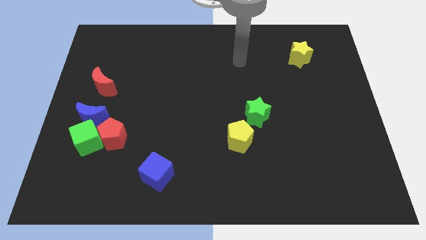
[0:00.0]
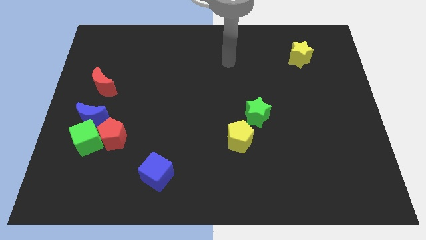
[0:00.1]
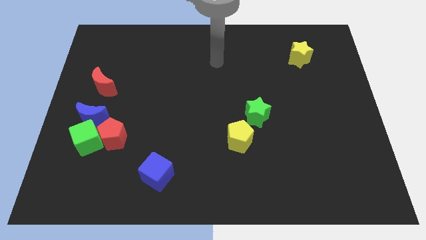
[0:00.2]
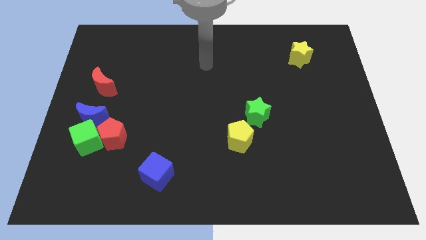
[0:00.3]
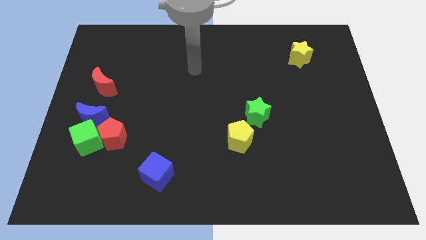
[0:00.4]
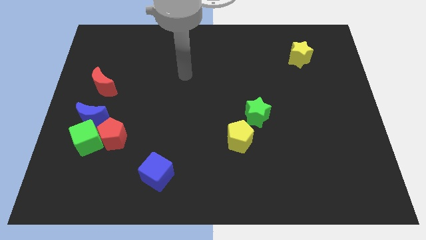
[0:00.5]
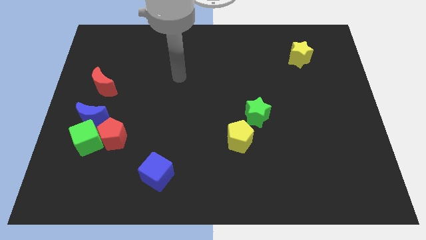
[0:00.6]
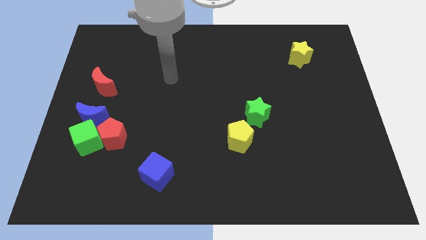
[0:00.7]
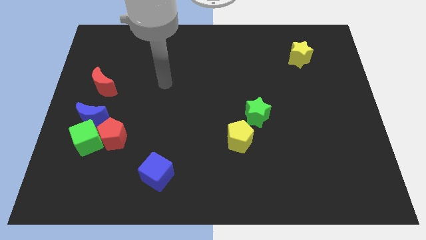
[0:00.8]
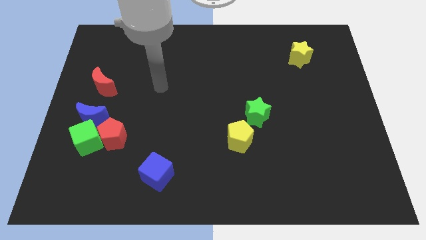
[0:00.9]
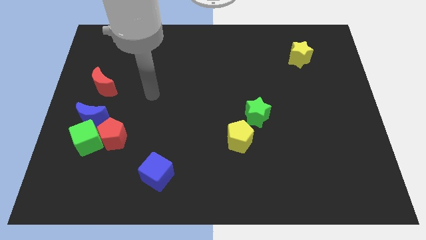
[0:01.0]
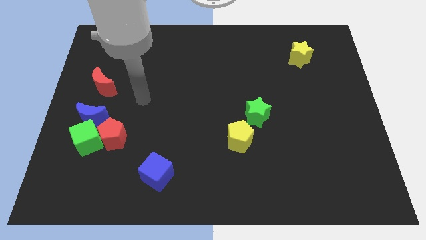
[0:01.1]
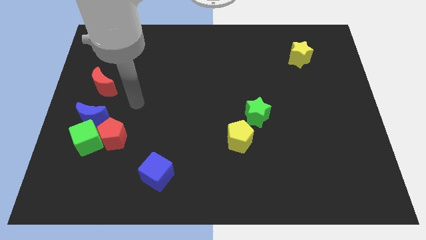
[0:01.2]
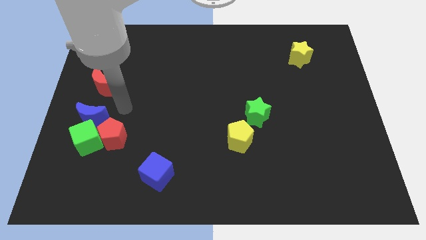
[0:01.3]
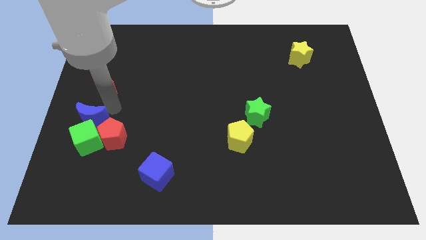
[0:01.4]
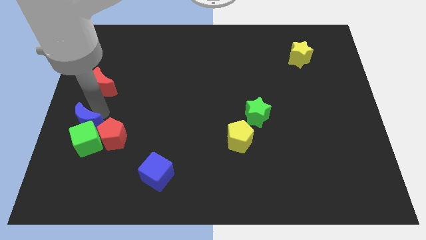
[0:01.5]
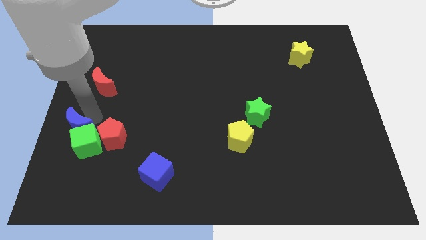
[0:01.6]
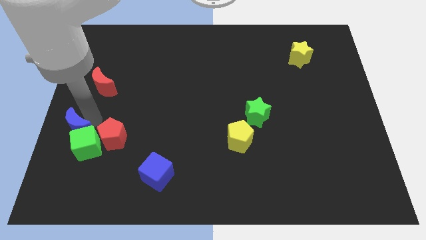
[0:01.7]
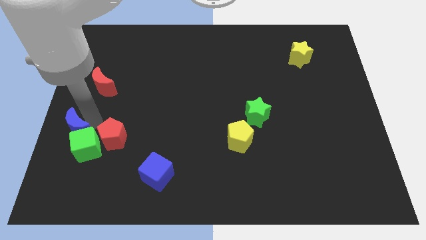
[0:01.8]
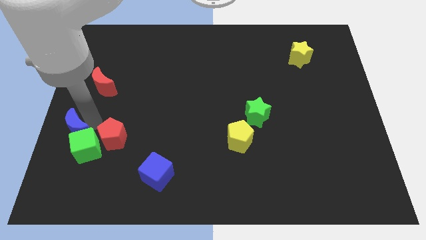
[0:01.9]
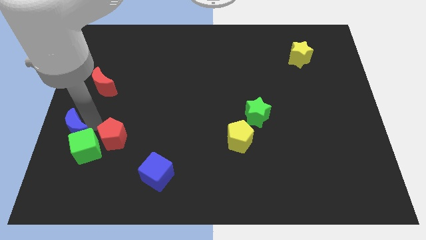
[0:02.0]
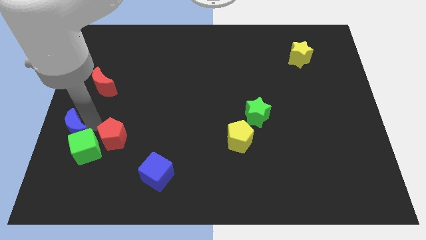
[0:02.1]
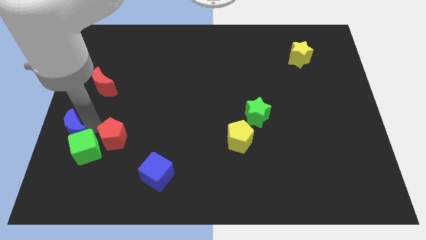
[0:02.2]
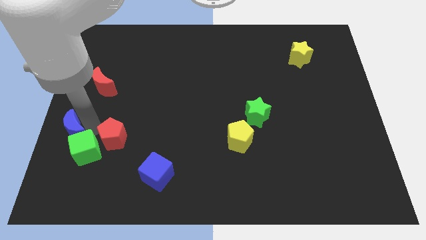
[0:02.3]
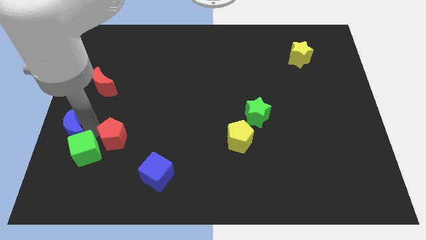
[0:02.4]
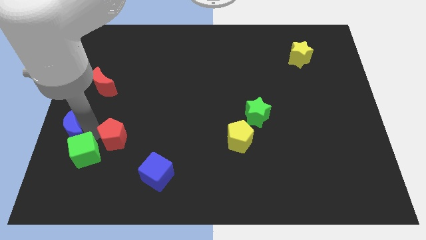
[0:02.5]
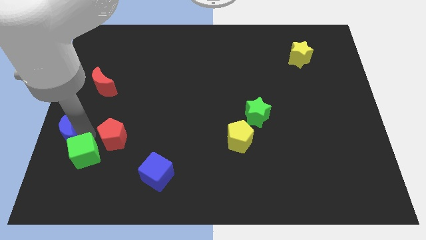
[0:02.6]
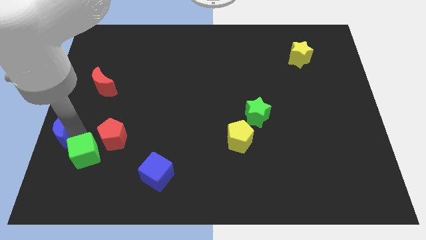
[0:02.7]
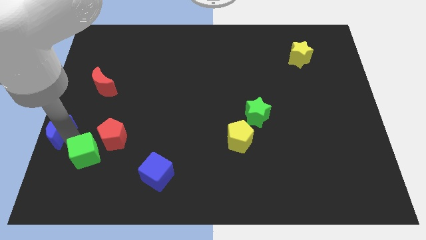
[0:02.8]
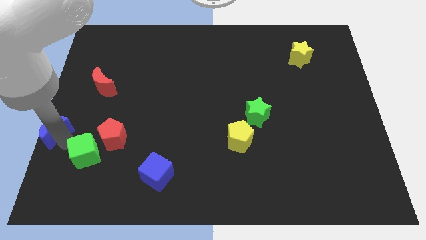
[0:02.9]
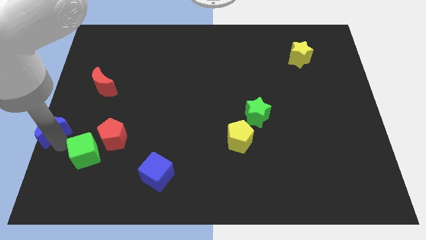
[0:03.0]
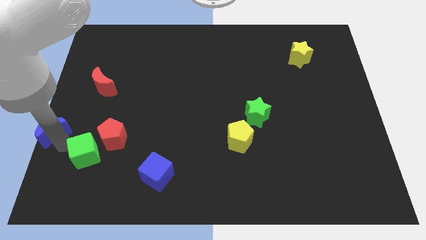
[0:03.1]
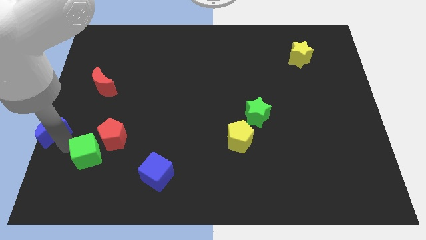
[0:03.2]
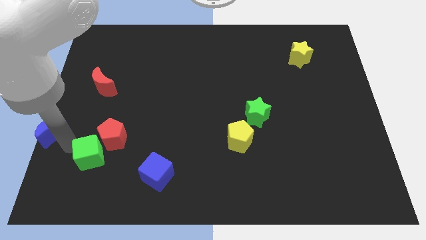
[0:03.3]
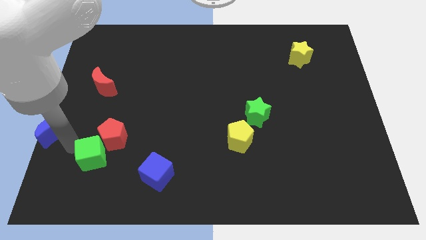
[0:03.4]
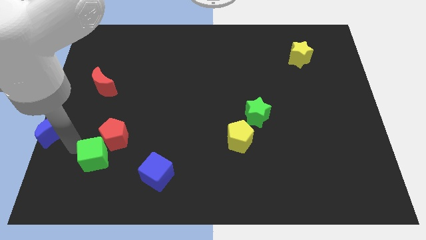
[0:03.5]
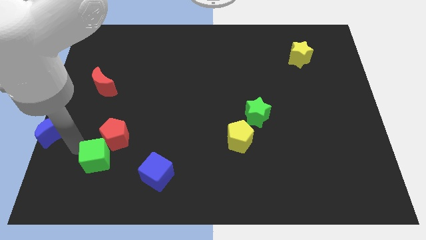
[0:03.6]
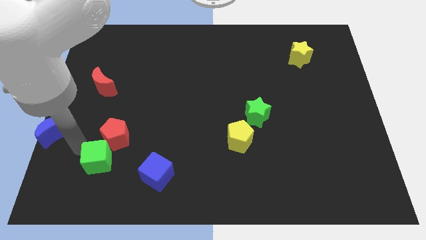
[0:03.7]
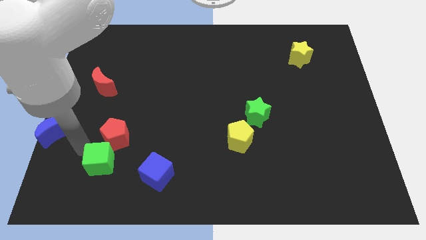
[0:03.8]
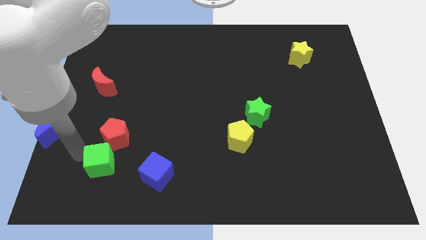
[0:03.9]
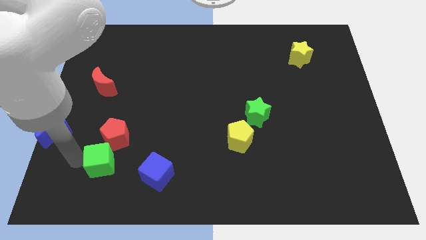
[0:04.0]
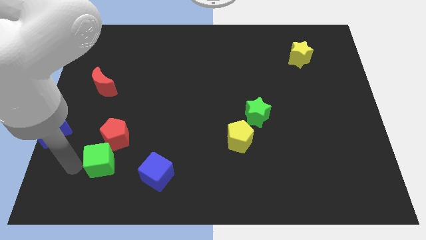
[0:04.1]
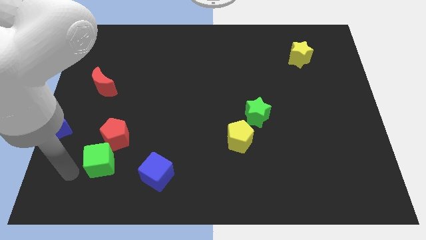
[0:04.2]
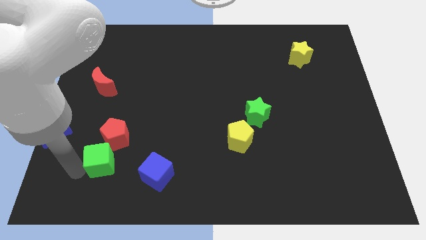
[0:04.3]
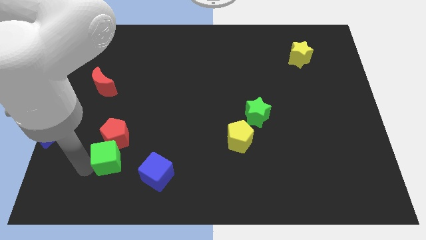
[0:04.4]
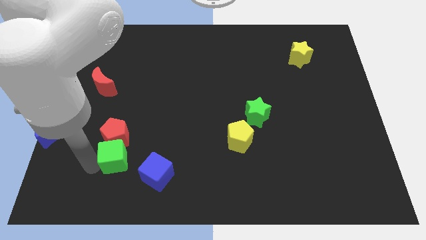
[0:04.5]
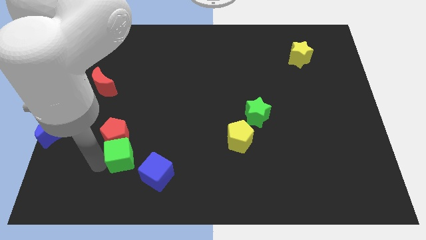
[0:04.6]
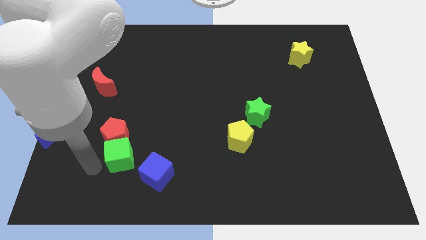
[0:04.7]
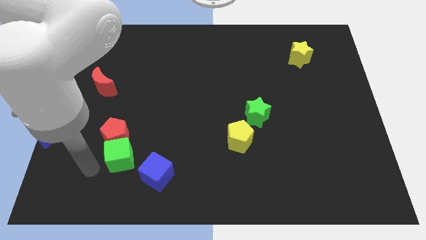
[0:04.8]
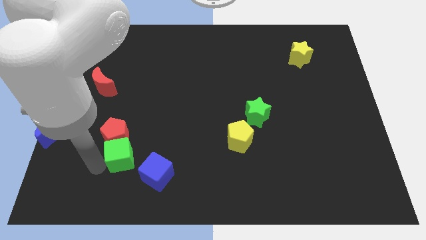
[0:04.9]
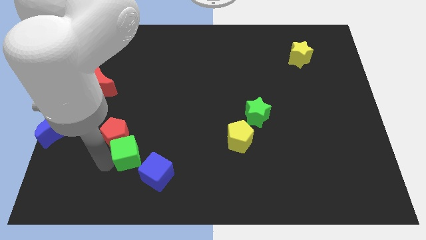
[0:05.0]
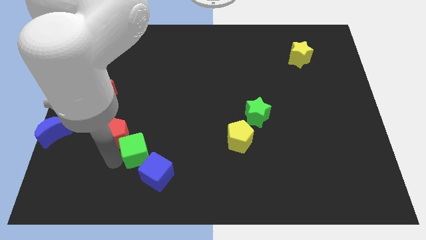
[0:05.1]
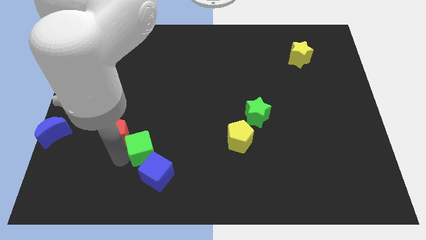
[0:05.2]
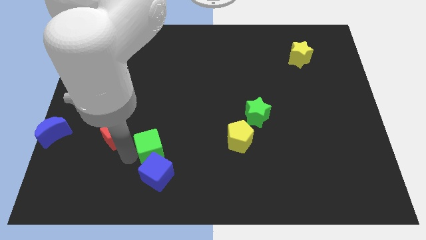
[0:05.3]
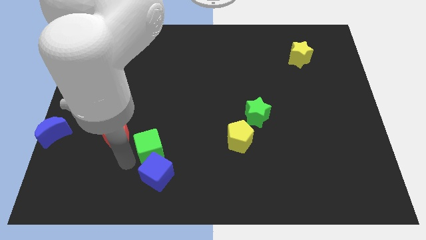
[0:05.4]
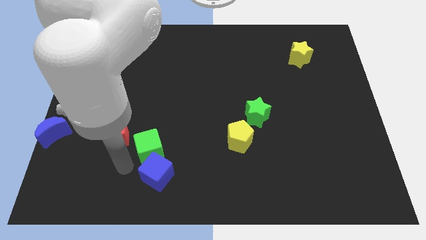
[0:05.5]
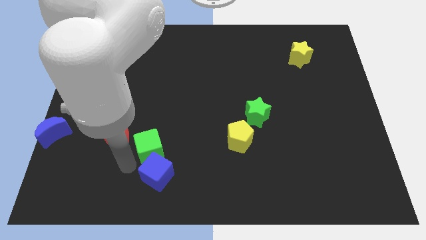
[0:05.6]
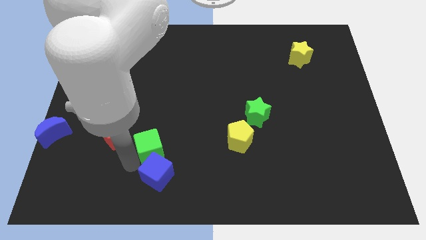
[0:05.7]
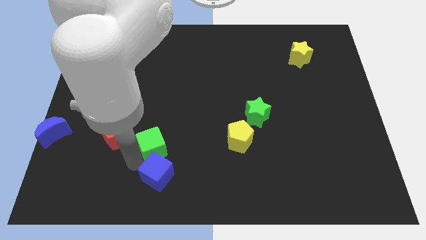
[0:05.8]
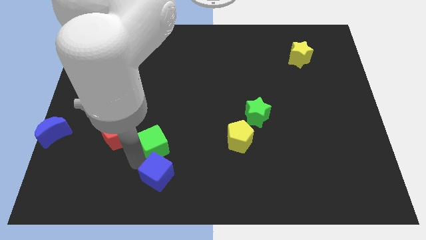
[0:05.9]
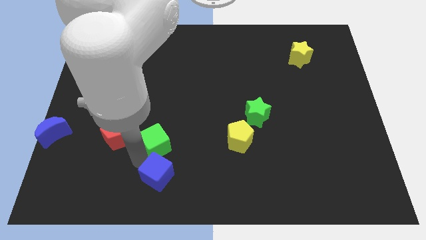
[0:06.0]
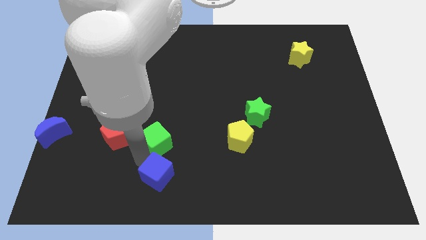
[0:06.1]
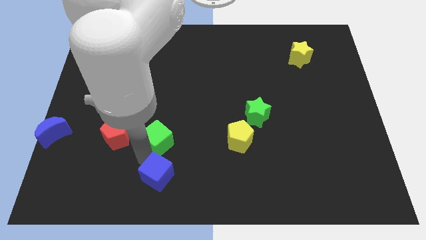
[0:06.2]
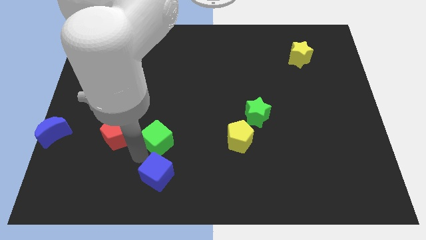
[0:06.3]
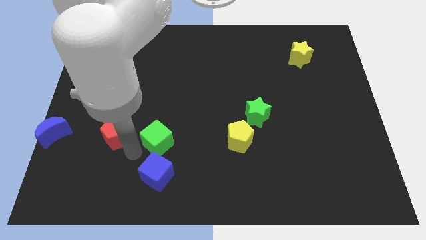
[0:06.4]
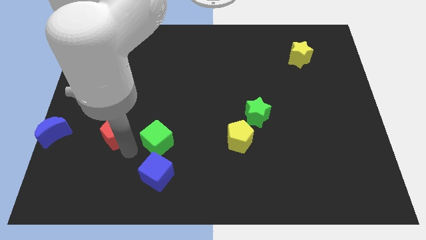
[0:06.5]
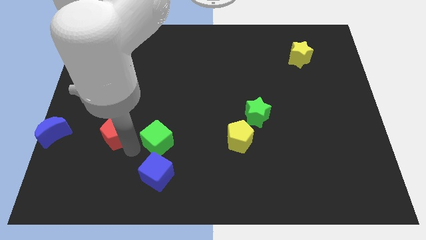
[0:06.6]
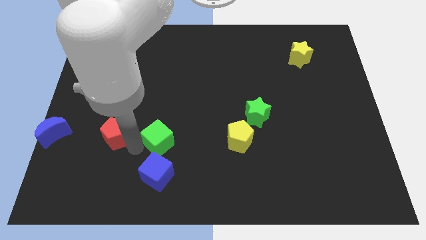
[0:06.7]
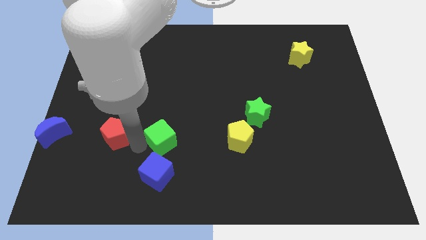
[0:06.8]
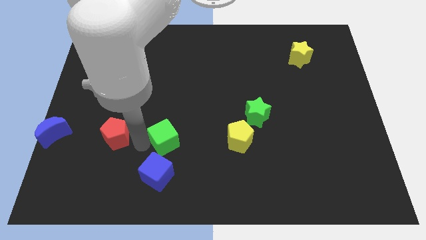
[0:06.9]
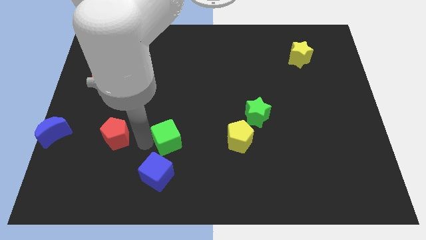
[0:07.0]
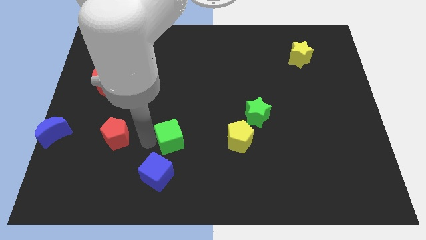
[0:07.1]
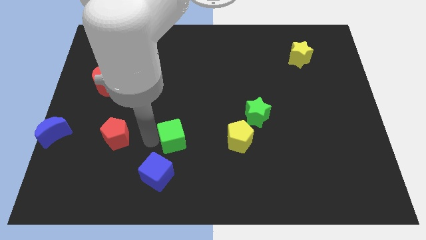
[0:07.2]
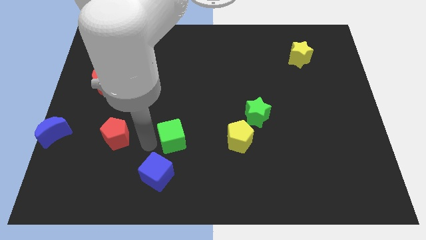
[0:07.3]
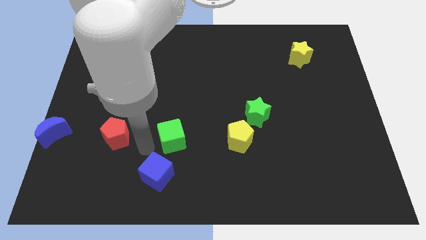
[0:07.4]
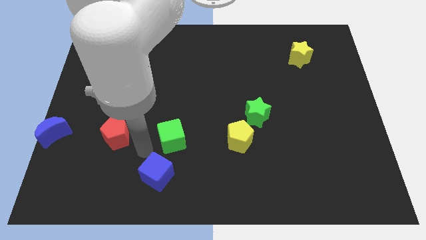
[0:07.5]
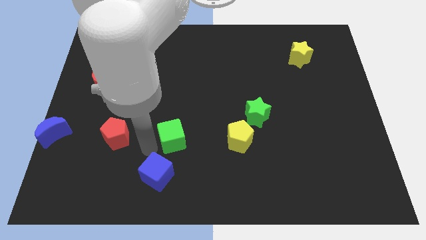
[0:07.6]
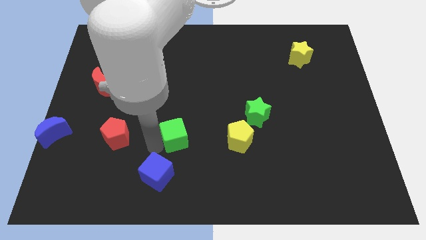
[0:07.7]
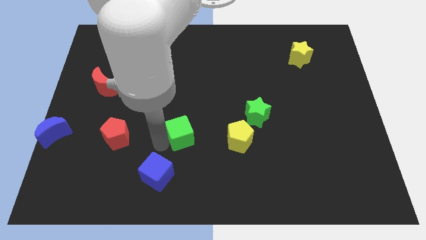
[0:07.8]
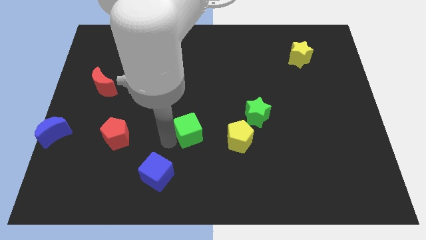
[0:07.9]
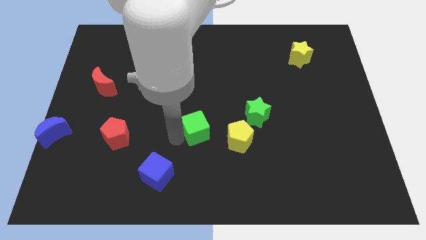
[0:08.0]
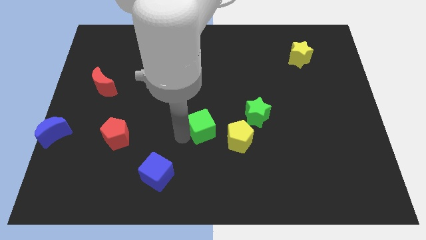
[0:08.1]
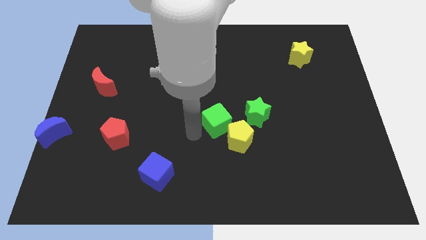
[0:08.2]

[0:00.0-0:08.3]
move the green cube to the top side of the yellow pentagon
